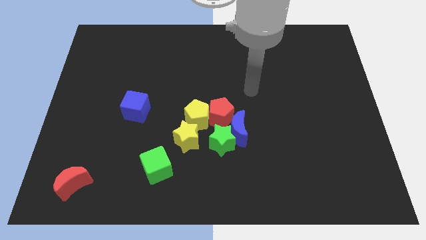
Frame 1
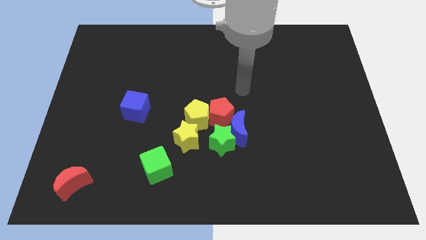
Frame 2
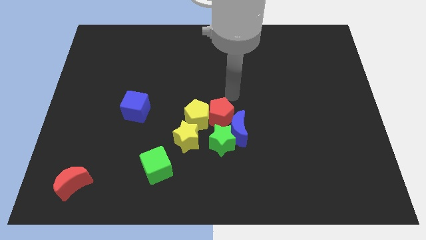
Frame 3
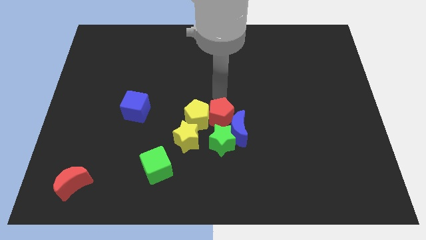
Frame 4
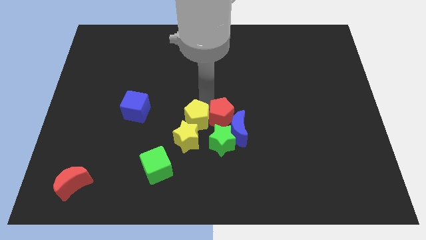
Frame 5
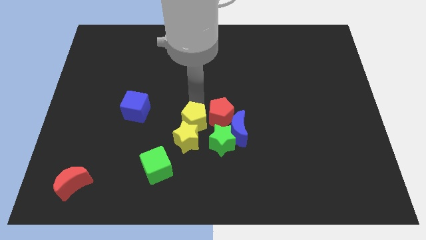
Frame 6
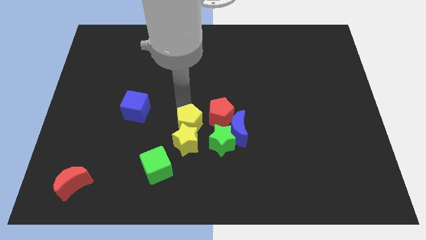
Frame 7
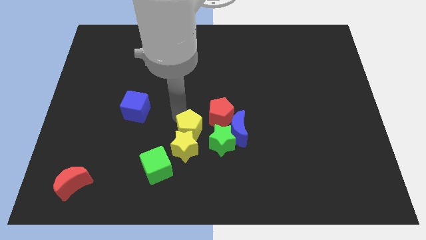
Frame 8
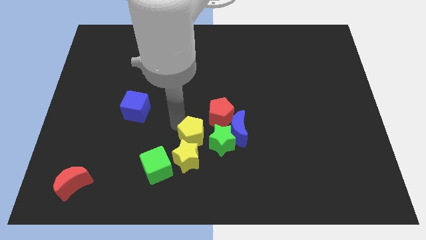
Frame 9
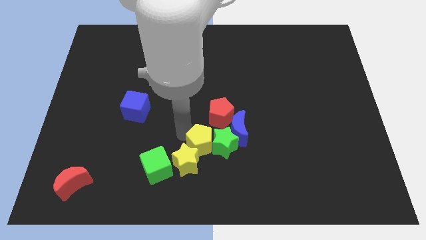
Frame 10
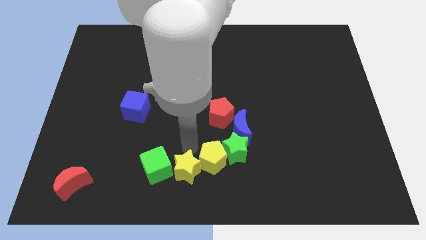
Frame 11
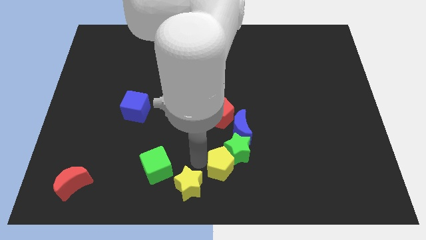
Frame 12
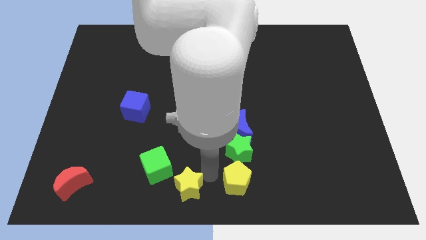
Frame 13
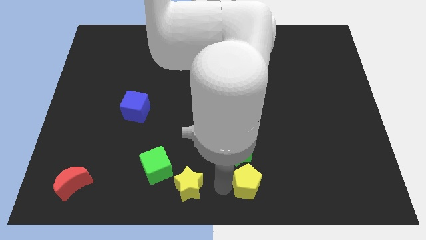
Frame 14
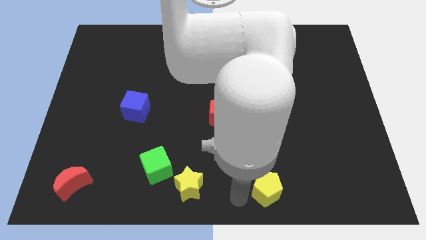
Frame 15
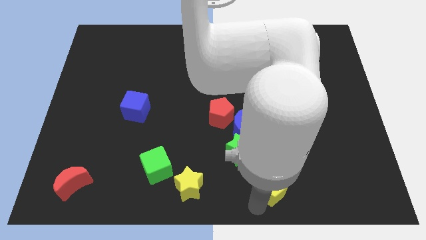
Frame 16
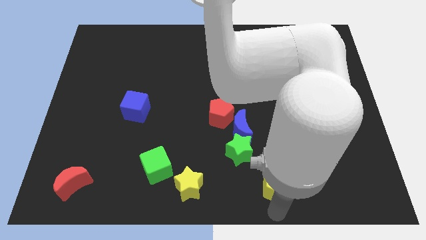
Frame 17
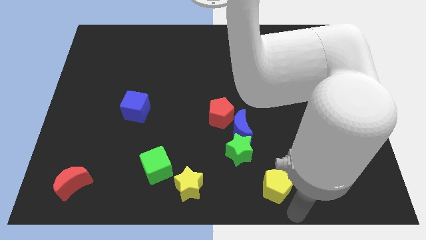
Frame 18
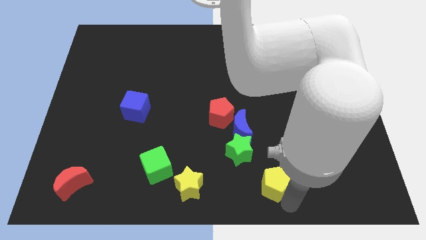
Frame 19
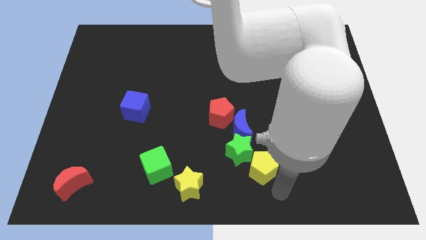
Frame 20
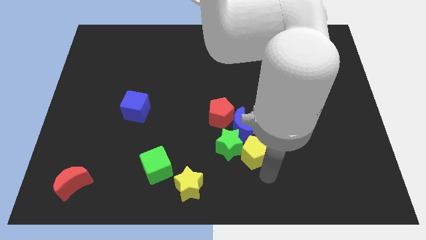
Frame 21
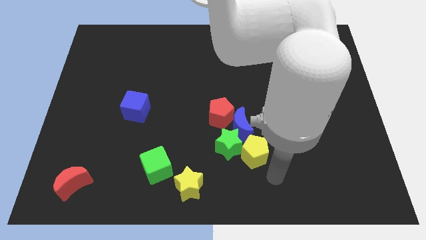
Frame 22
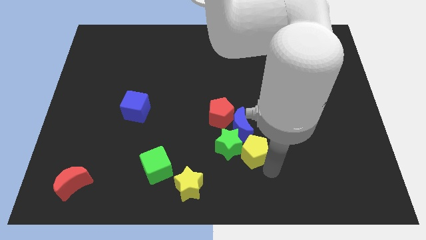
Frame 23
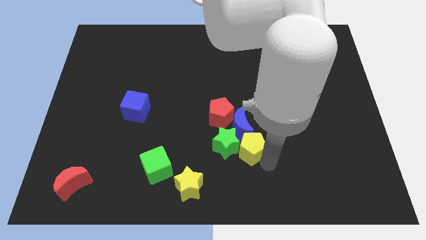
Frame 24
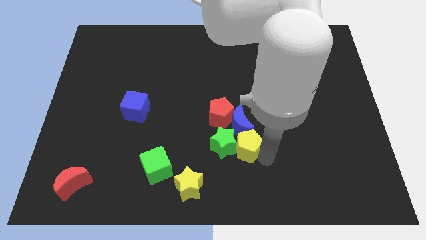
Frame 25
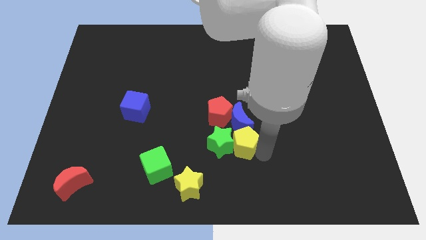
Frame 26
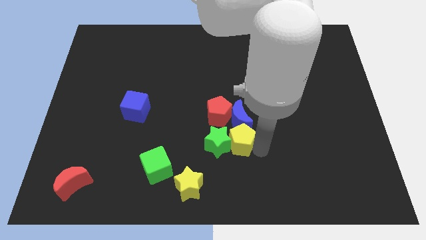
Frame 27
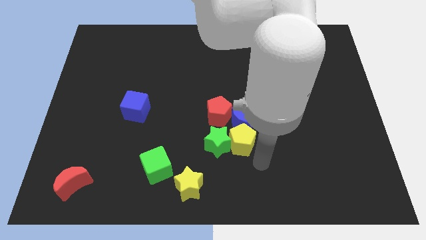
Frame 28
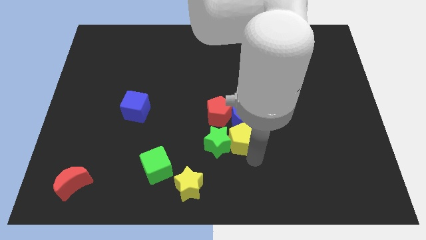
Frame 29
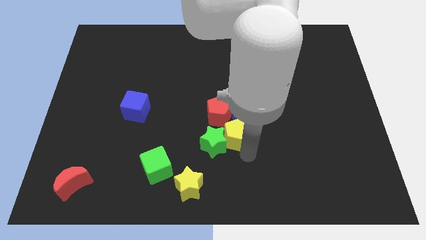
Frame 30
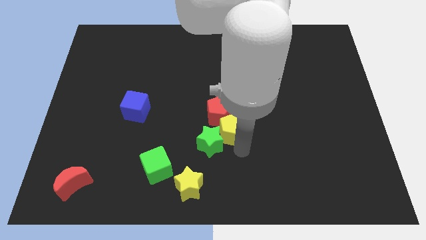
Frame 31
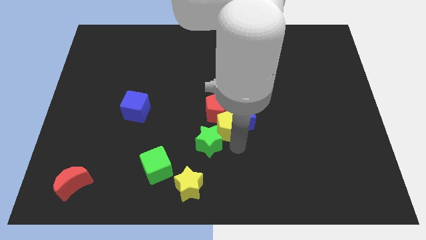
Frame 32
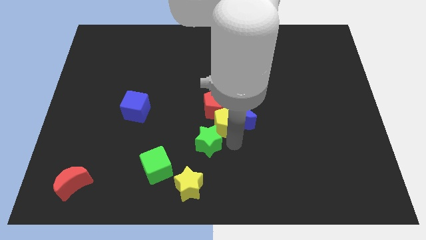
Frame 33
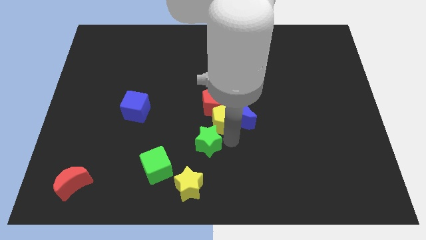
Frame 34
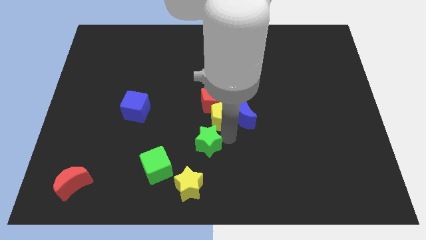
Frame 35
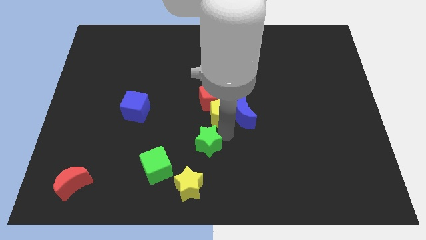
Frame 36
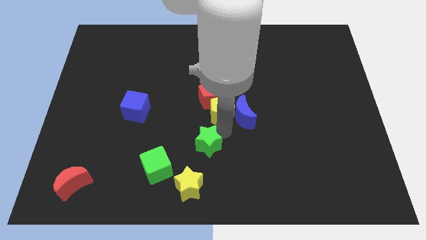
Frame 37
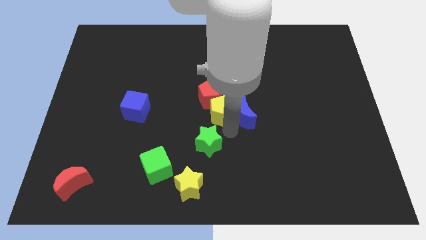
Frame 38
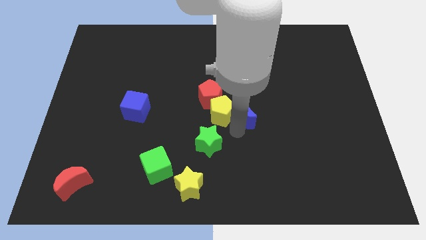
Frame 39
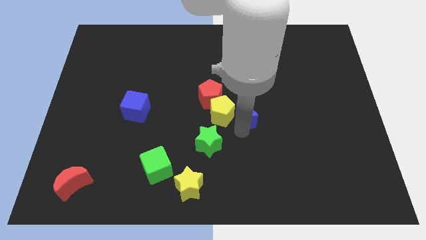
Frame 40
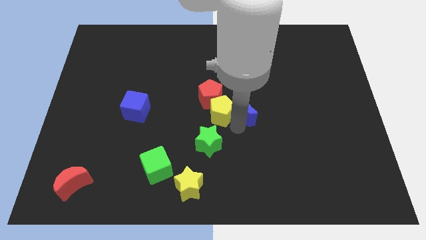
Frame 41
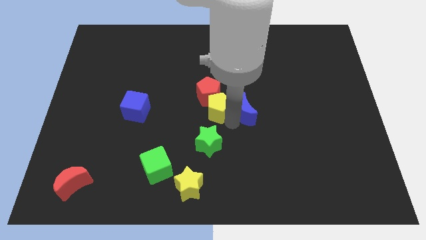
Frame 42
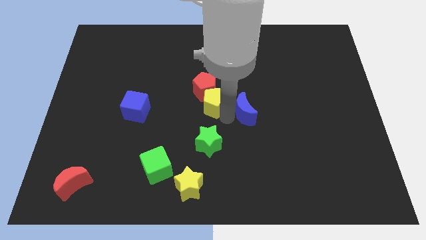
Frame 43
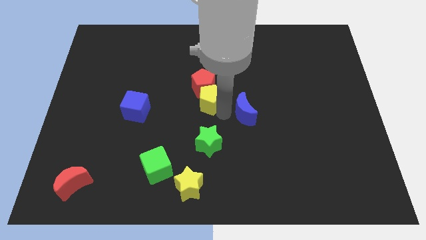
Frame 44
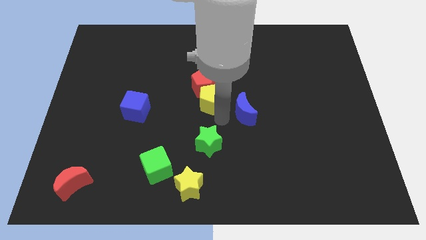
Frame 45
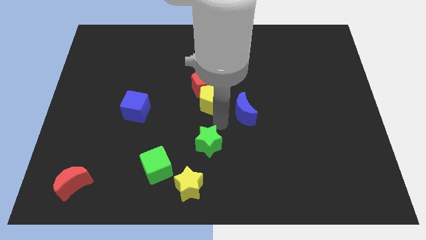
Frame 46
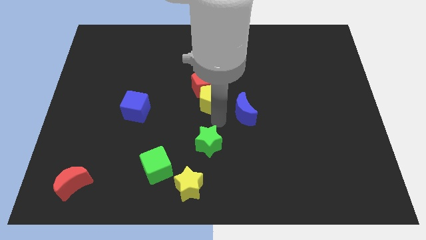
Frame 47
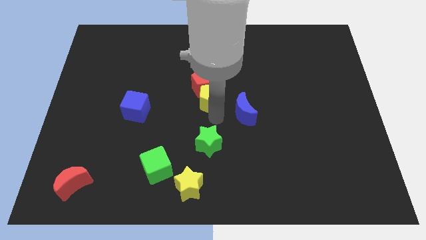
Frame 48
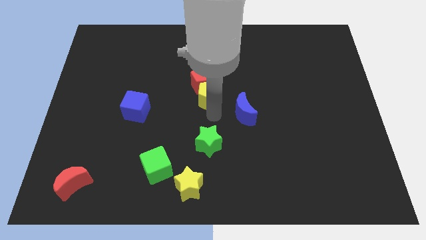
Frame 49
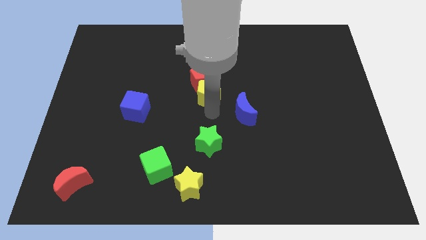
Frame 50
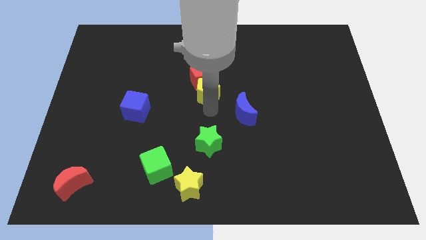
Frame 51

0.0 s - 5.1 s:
slide the yellow pentagon a little upwards

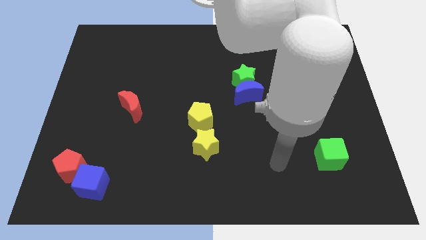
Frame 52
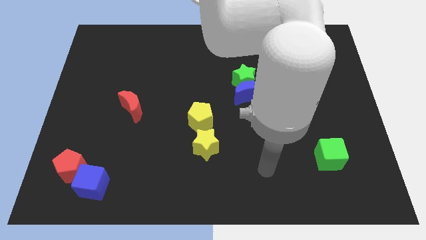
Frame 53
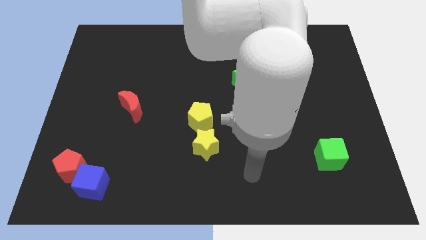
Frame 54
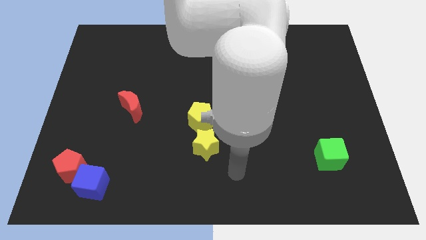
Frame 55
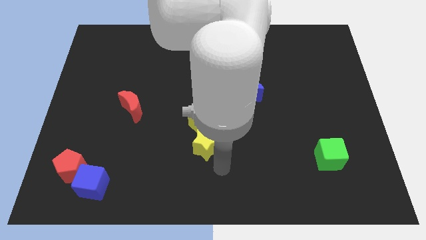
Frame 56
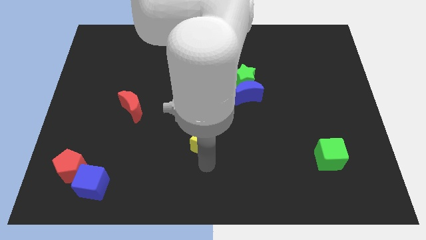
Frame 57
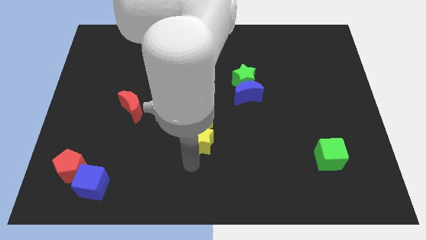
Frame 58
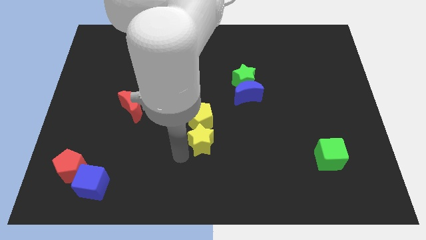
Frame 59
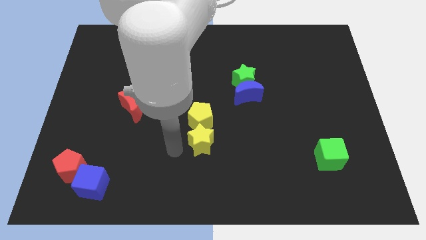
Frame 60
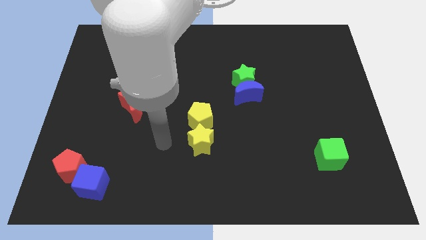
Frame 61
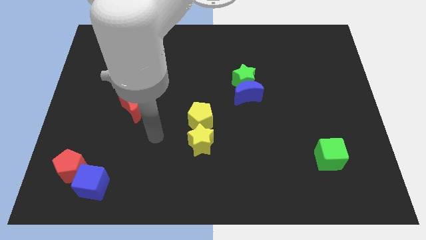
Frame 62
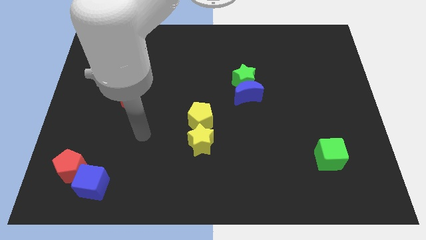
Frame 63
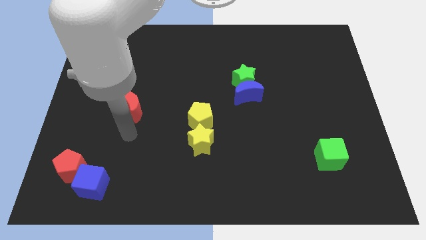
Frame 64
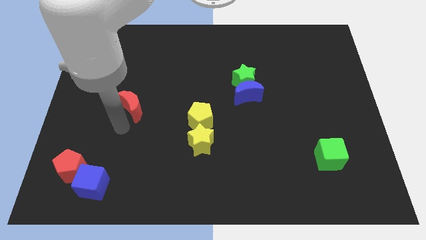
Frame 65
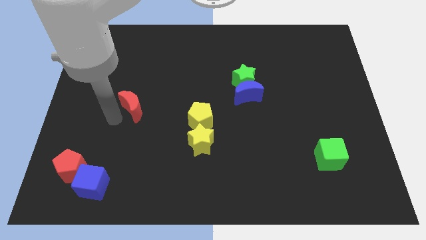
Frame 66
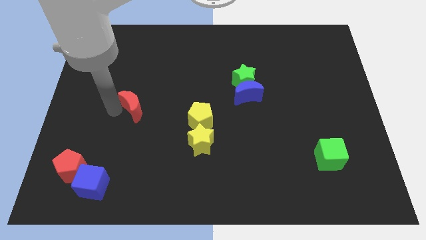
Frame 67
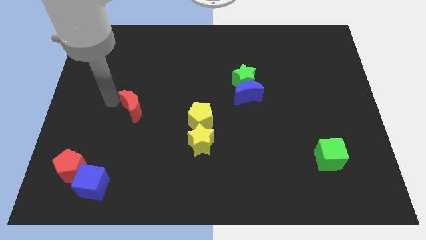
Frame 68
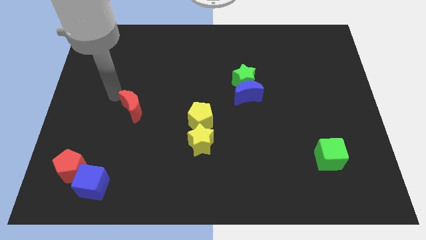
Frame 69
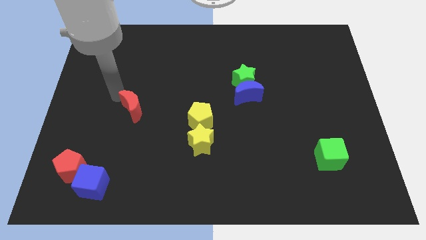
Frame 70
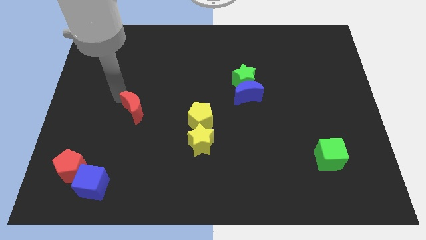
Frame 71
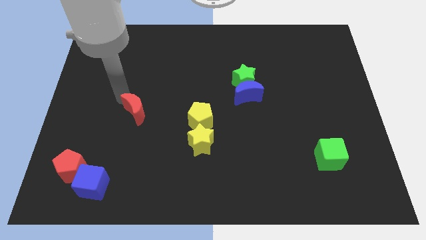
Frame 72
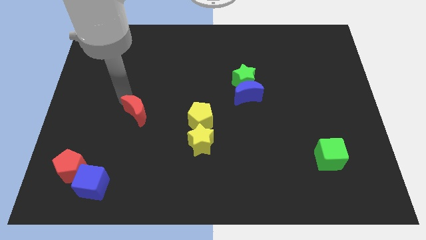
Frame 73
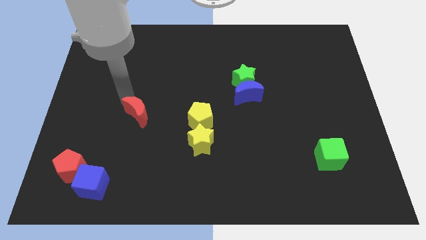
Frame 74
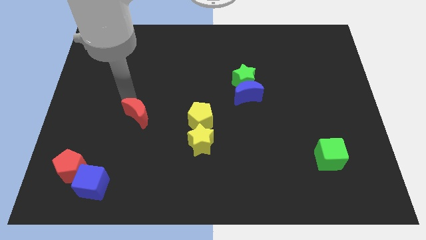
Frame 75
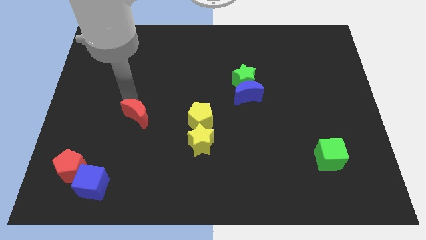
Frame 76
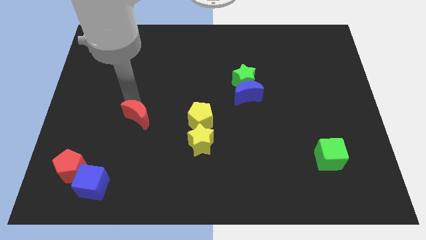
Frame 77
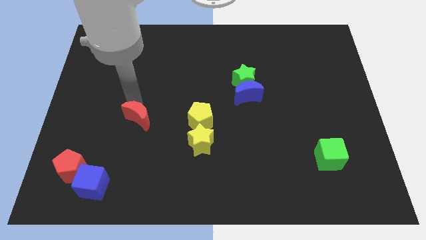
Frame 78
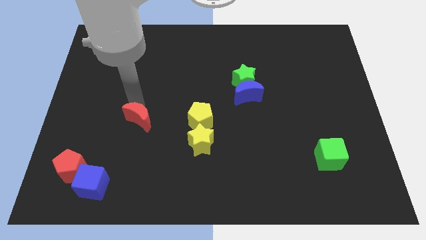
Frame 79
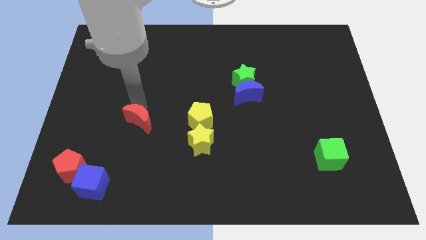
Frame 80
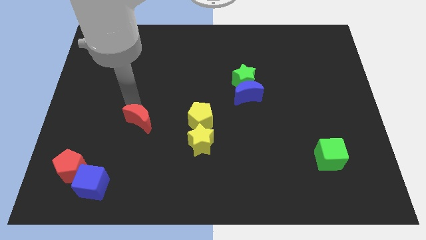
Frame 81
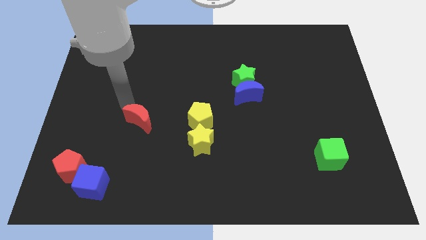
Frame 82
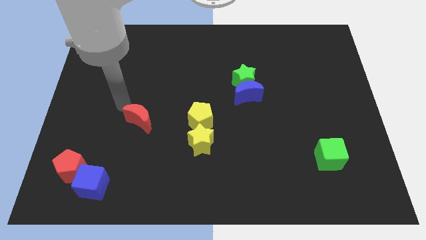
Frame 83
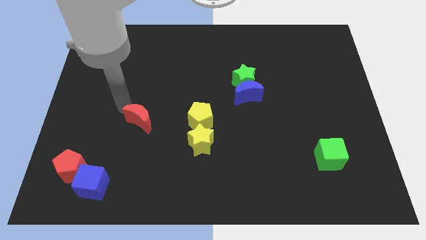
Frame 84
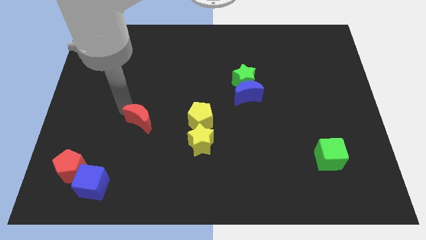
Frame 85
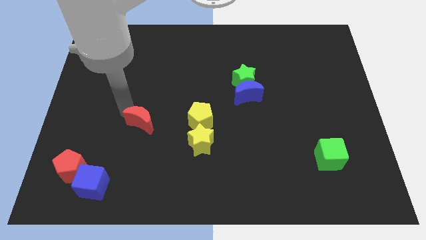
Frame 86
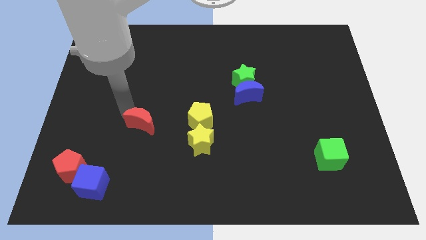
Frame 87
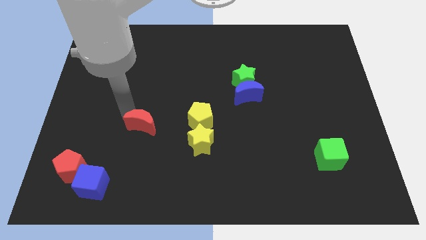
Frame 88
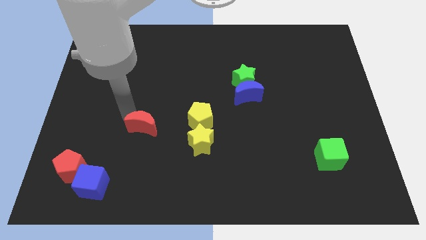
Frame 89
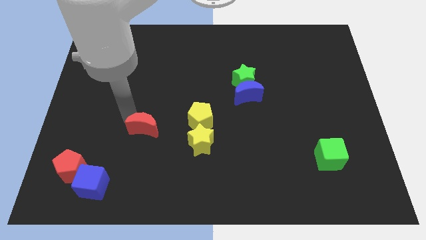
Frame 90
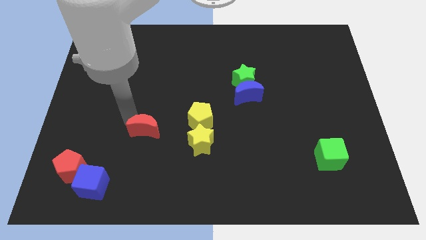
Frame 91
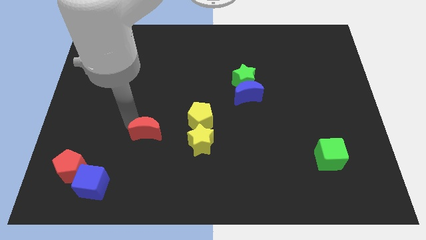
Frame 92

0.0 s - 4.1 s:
slide the red moon a little bit diagonally down and right
